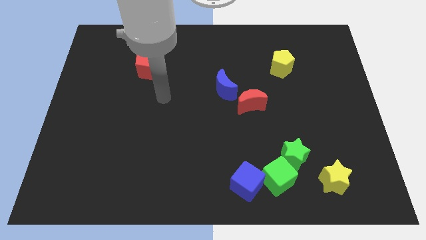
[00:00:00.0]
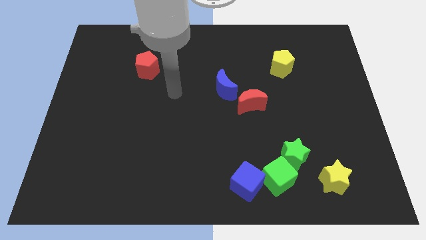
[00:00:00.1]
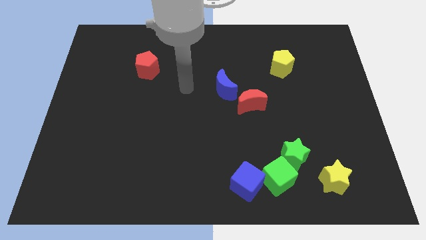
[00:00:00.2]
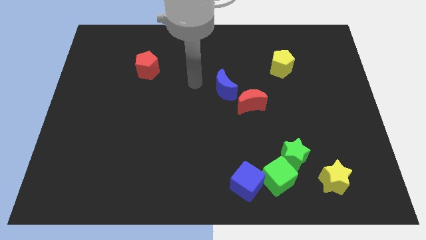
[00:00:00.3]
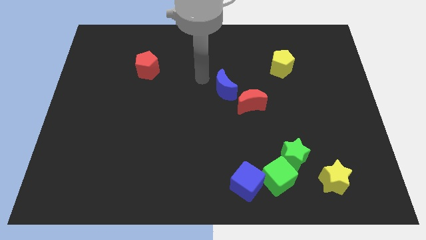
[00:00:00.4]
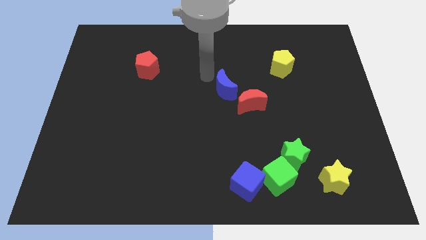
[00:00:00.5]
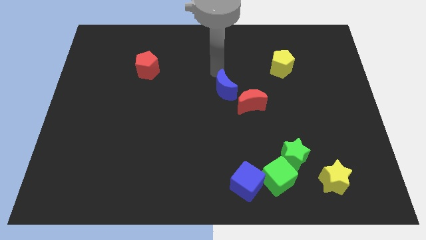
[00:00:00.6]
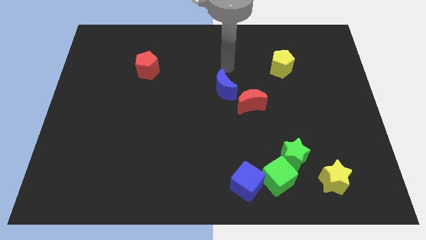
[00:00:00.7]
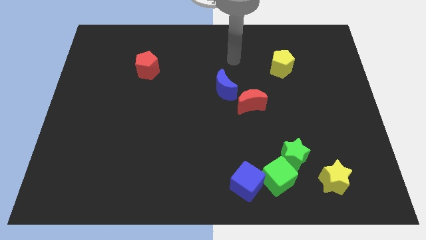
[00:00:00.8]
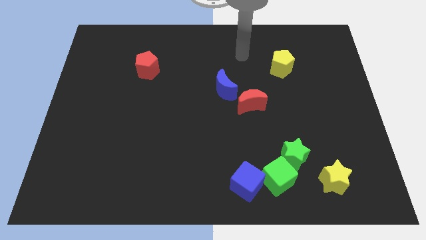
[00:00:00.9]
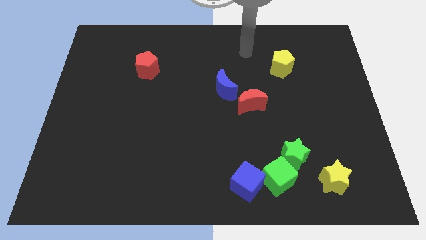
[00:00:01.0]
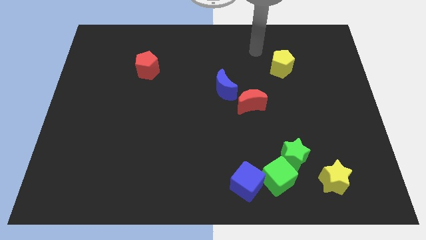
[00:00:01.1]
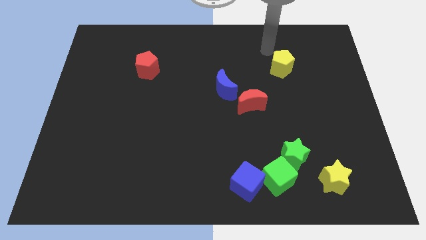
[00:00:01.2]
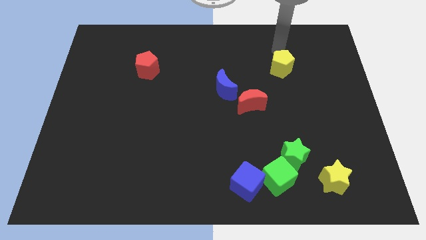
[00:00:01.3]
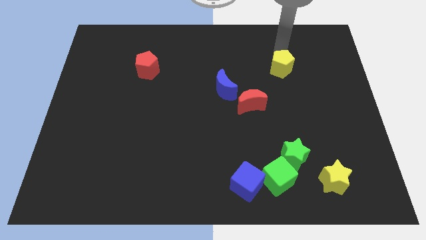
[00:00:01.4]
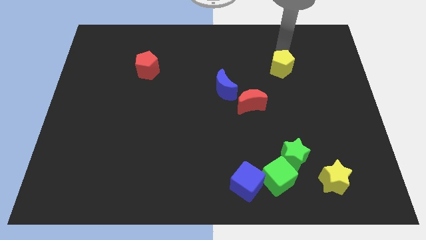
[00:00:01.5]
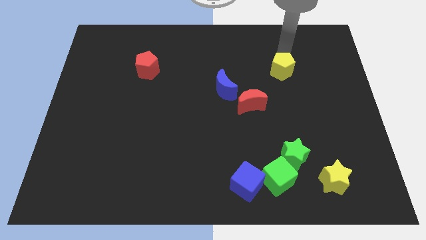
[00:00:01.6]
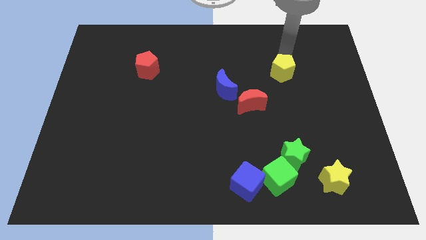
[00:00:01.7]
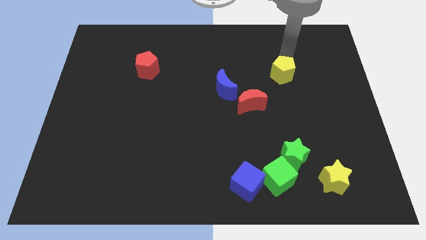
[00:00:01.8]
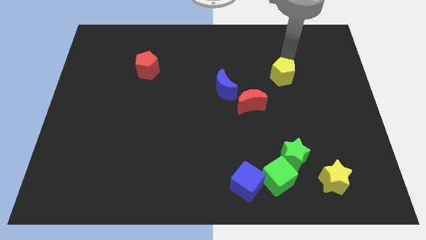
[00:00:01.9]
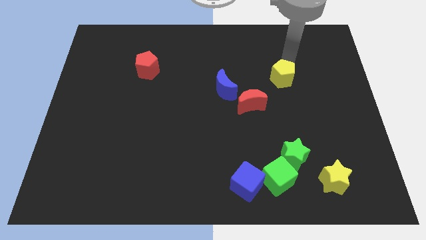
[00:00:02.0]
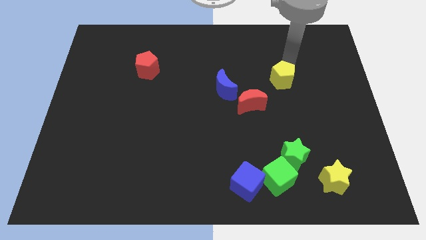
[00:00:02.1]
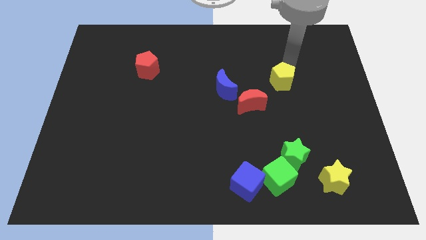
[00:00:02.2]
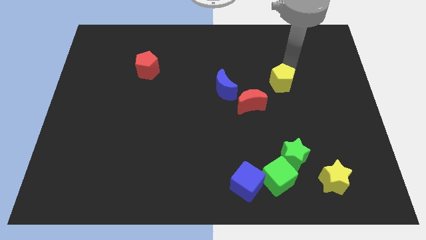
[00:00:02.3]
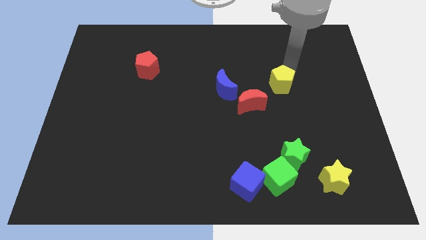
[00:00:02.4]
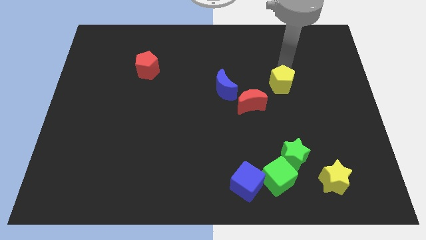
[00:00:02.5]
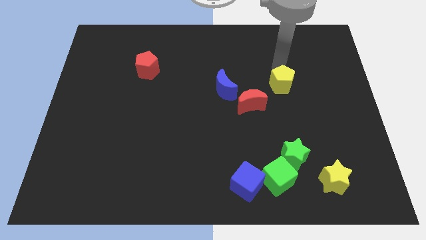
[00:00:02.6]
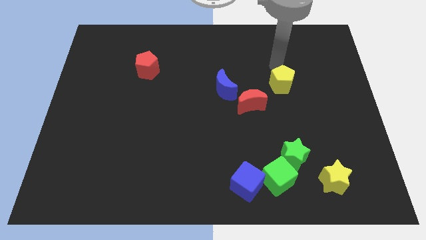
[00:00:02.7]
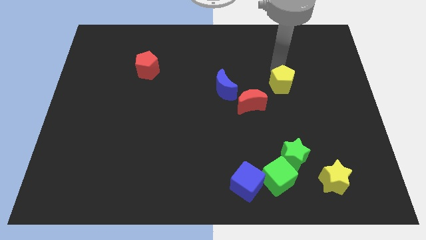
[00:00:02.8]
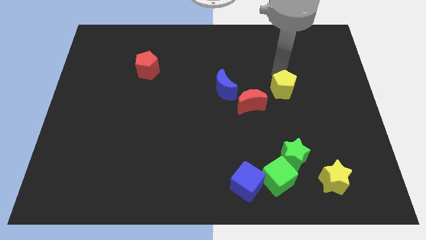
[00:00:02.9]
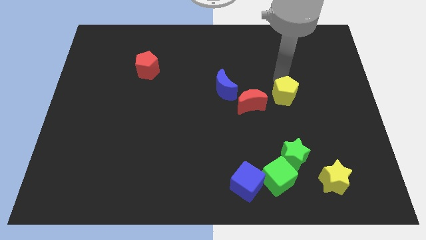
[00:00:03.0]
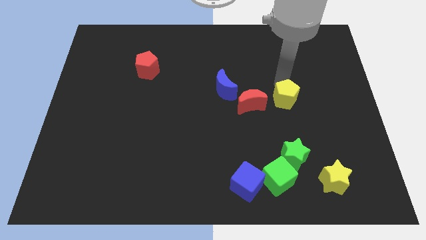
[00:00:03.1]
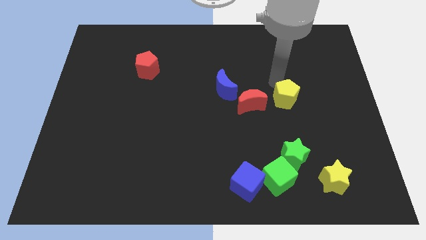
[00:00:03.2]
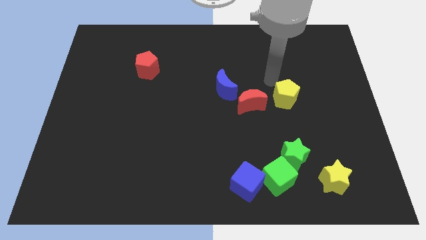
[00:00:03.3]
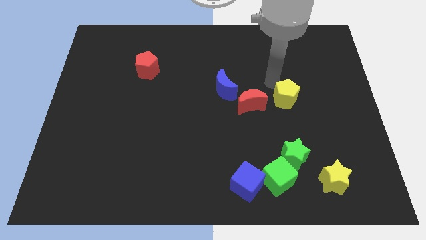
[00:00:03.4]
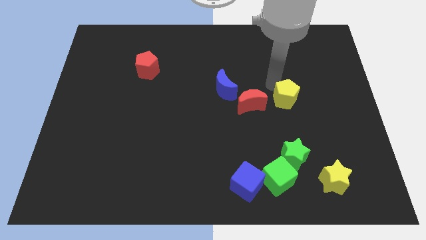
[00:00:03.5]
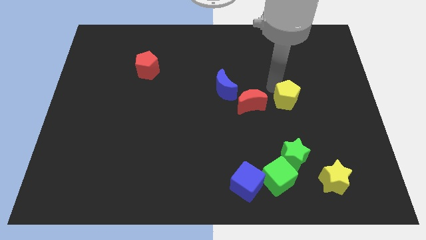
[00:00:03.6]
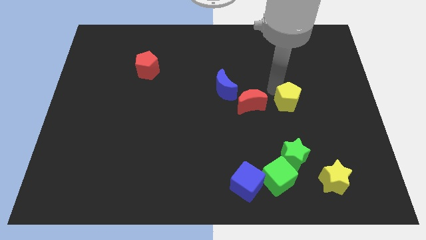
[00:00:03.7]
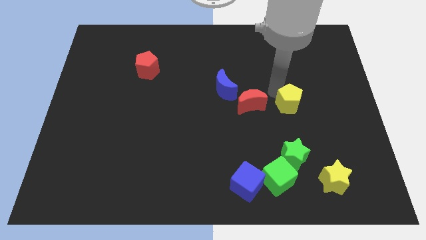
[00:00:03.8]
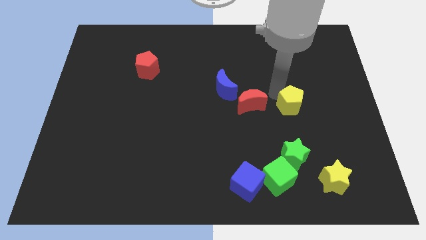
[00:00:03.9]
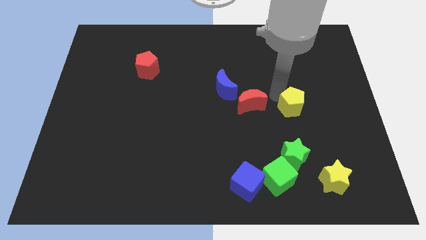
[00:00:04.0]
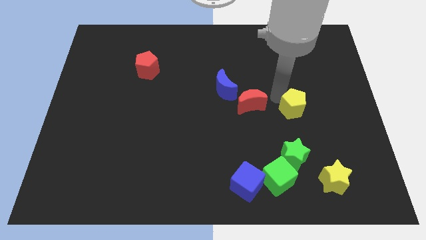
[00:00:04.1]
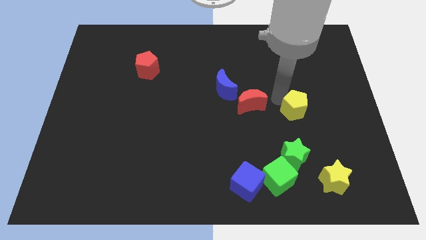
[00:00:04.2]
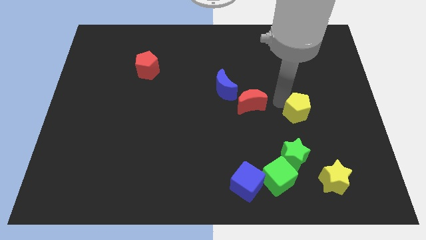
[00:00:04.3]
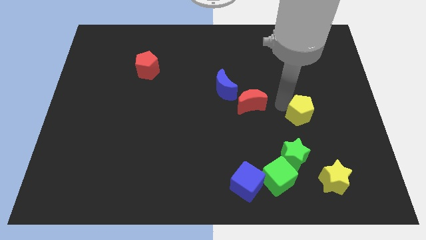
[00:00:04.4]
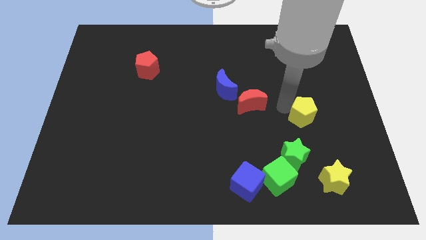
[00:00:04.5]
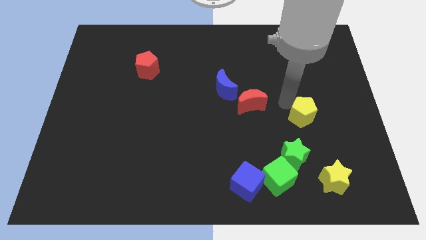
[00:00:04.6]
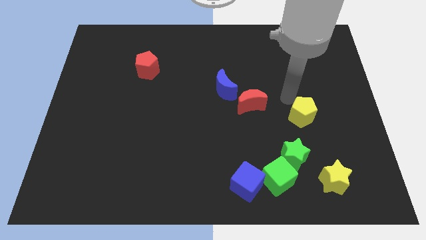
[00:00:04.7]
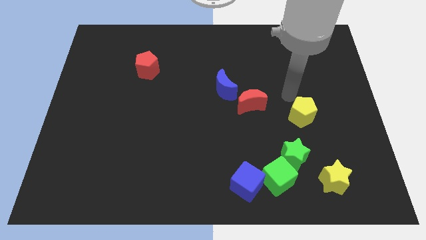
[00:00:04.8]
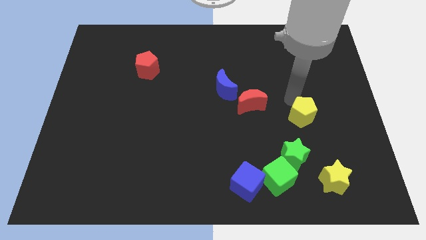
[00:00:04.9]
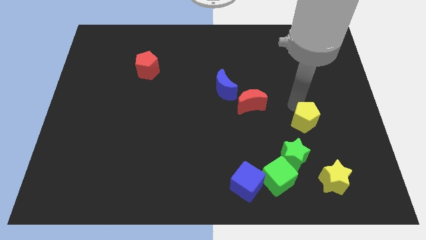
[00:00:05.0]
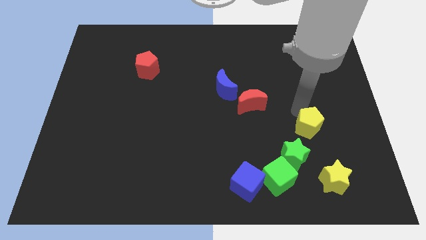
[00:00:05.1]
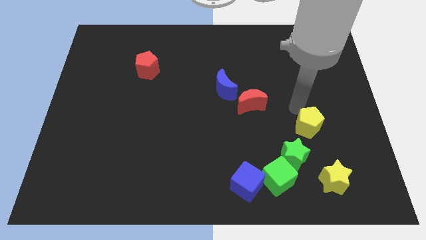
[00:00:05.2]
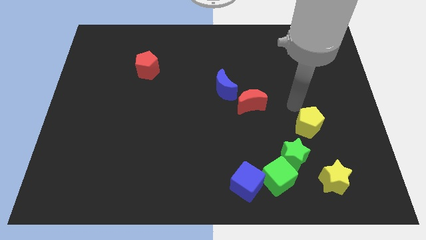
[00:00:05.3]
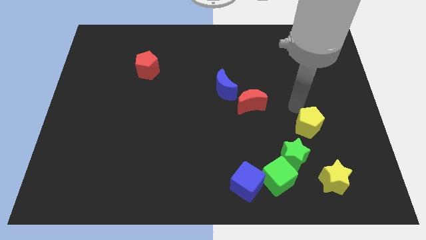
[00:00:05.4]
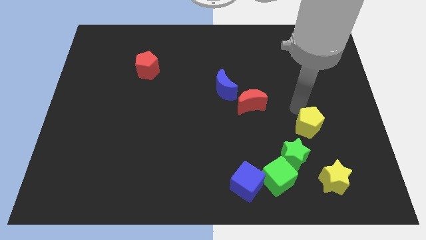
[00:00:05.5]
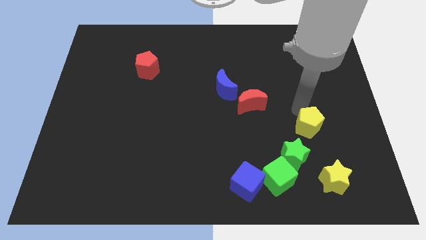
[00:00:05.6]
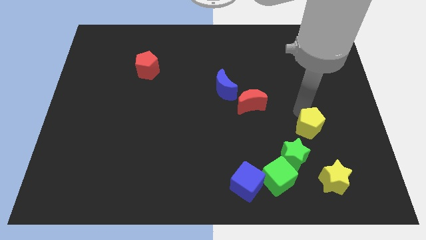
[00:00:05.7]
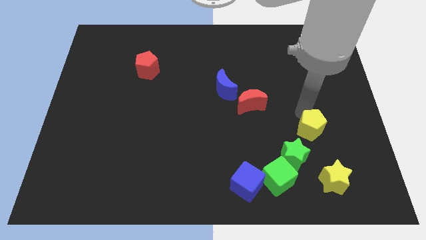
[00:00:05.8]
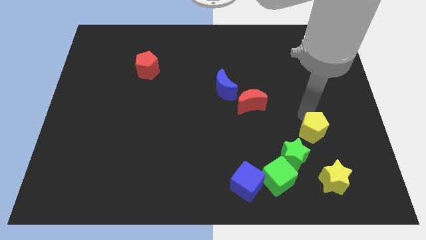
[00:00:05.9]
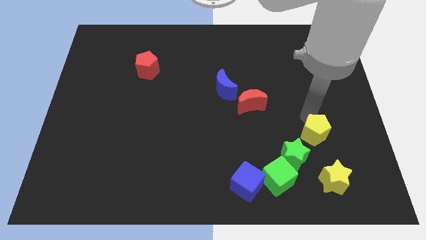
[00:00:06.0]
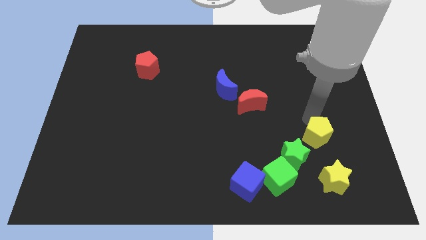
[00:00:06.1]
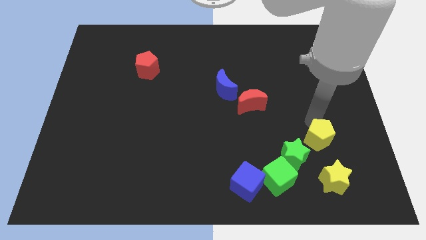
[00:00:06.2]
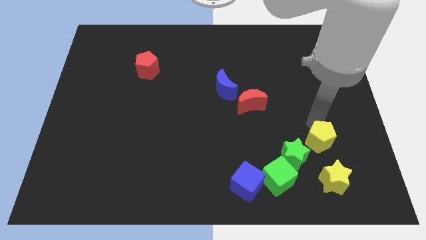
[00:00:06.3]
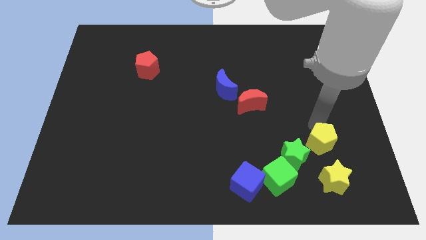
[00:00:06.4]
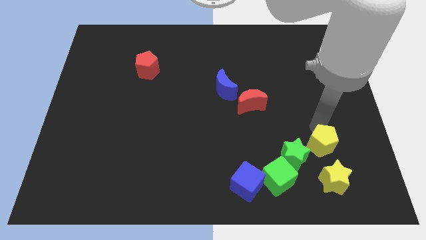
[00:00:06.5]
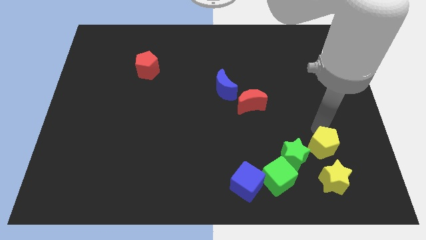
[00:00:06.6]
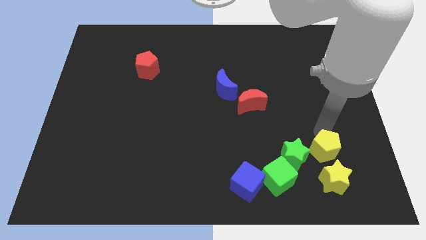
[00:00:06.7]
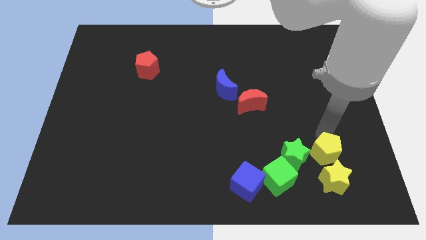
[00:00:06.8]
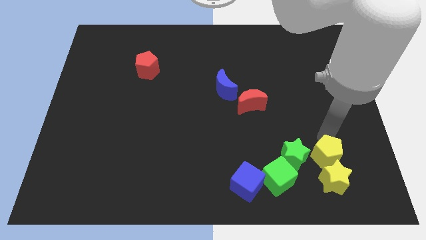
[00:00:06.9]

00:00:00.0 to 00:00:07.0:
push the yellow pentagon close to the yellow star

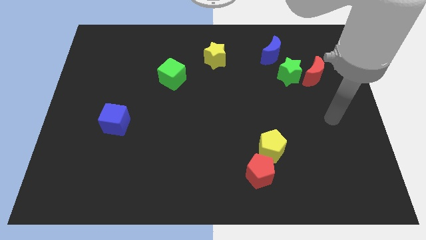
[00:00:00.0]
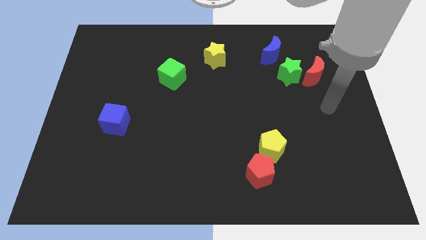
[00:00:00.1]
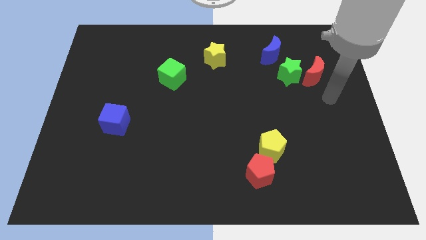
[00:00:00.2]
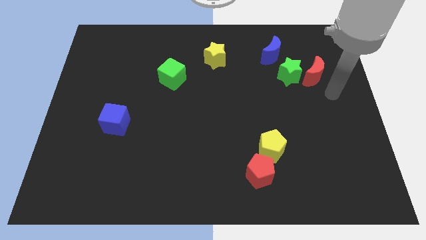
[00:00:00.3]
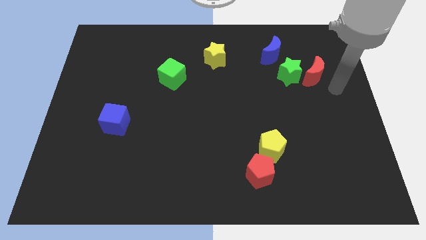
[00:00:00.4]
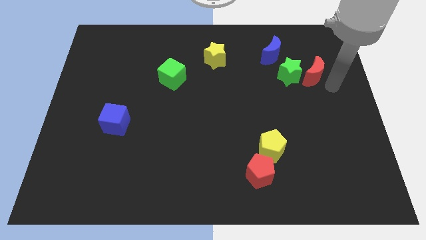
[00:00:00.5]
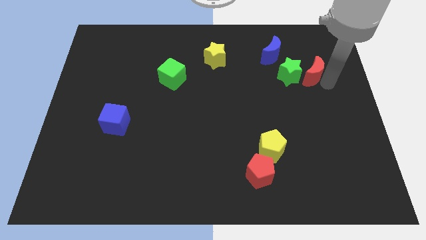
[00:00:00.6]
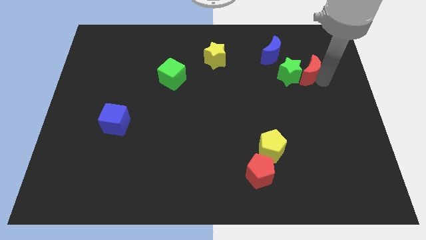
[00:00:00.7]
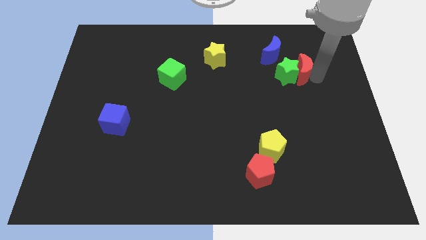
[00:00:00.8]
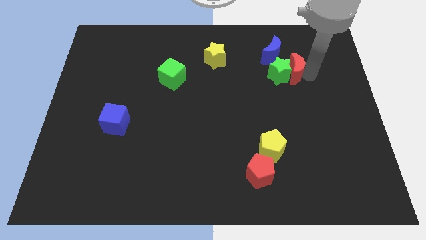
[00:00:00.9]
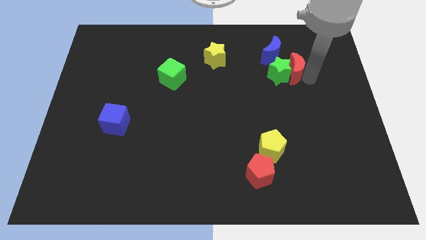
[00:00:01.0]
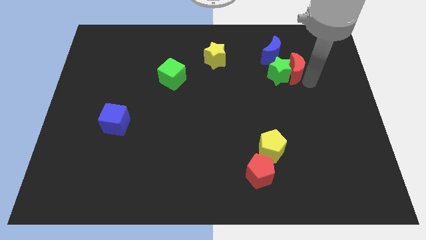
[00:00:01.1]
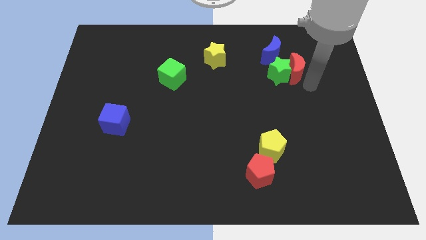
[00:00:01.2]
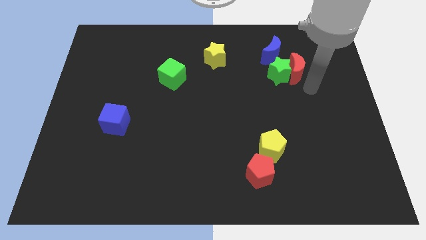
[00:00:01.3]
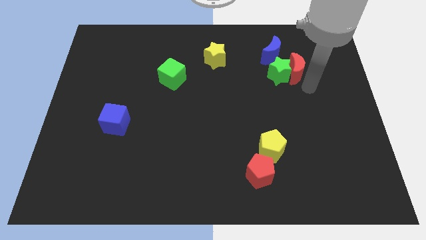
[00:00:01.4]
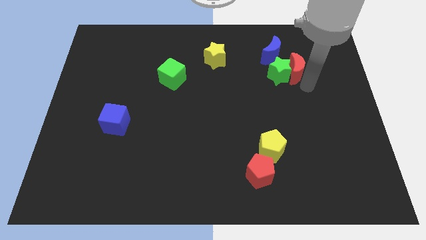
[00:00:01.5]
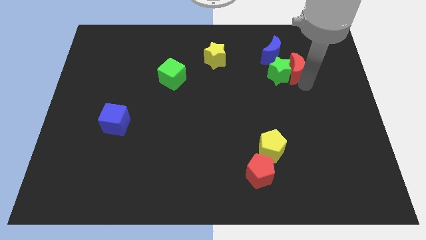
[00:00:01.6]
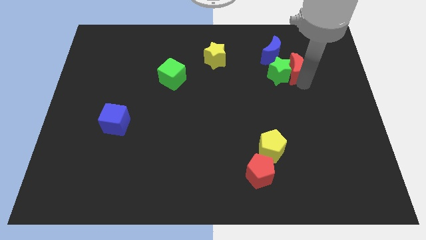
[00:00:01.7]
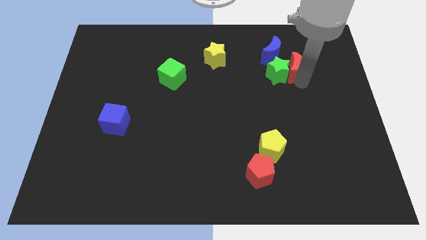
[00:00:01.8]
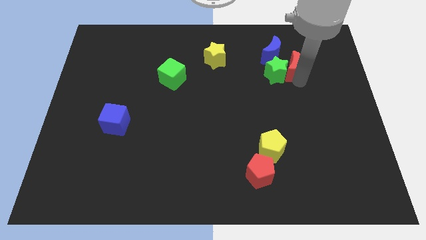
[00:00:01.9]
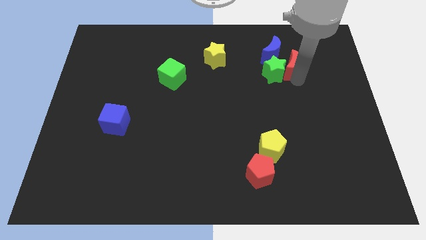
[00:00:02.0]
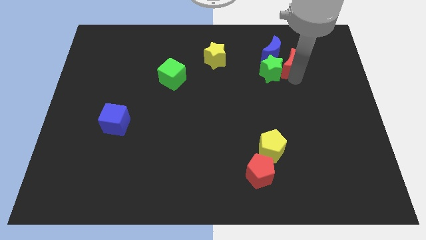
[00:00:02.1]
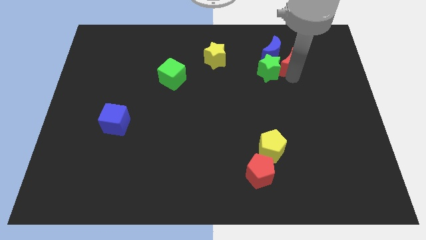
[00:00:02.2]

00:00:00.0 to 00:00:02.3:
push the red moon to the blue moon
